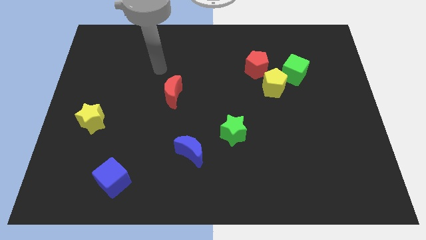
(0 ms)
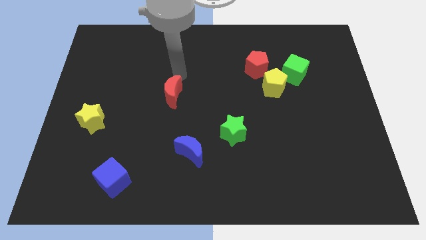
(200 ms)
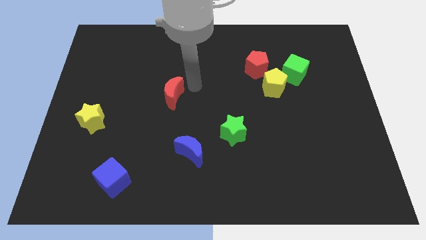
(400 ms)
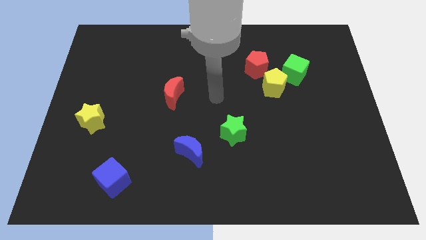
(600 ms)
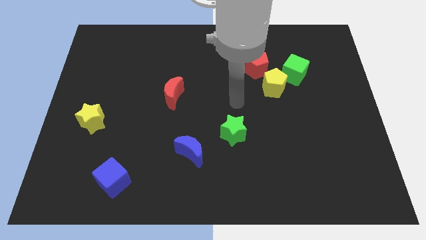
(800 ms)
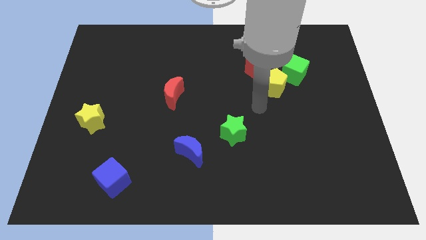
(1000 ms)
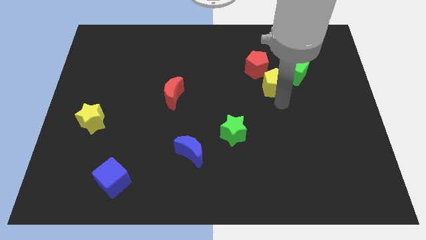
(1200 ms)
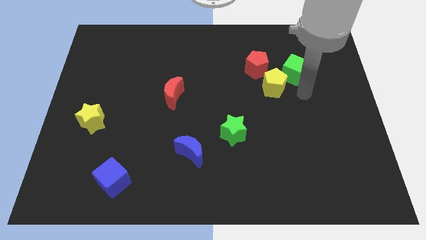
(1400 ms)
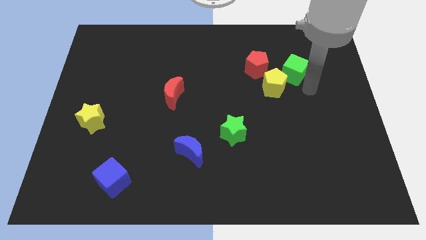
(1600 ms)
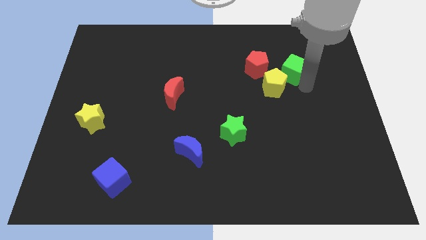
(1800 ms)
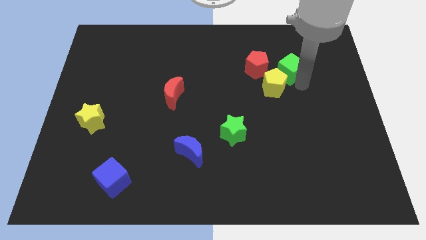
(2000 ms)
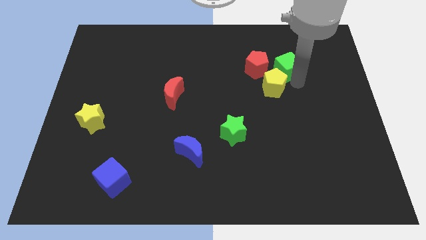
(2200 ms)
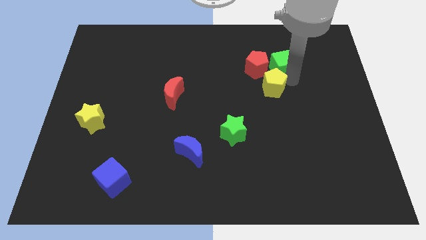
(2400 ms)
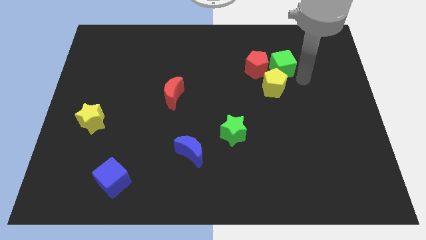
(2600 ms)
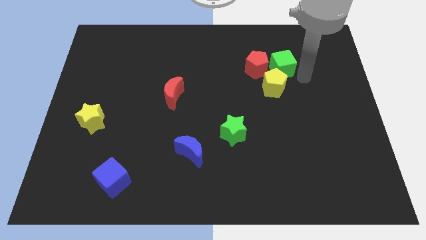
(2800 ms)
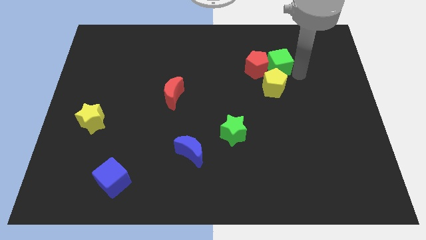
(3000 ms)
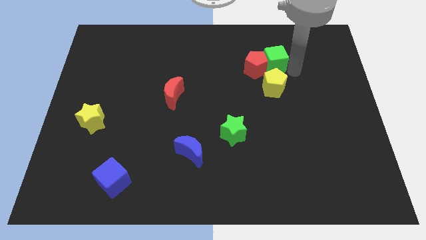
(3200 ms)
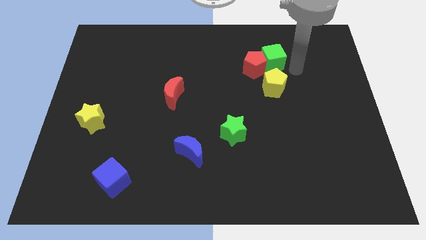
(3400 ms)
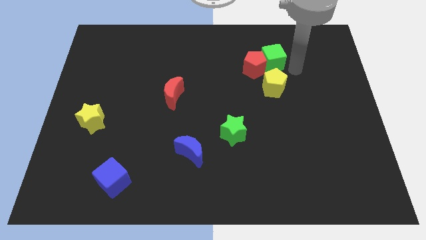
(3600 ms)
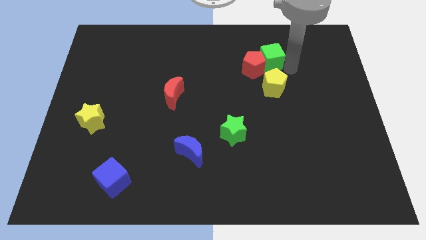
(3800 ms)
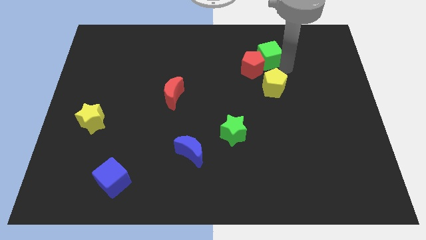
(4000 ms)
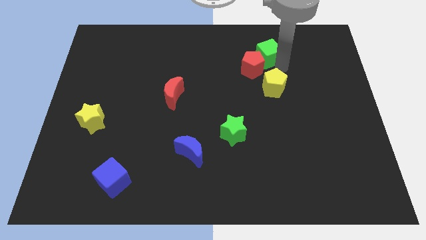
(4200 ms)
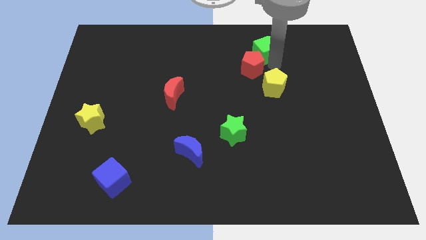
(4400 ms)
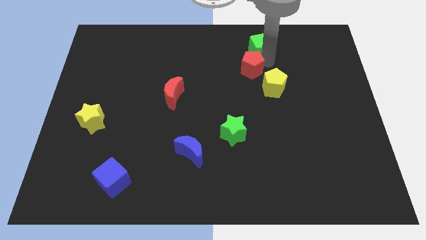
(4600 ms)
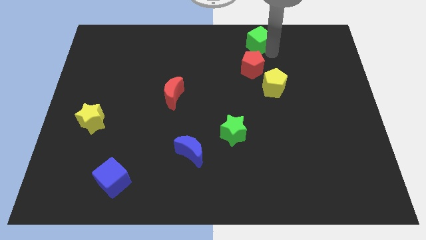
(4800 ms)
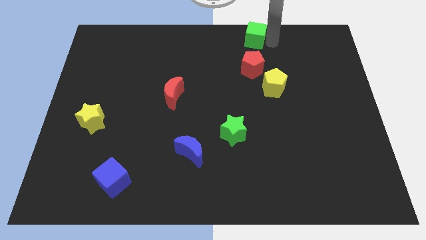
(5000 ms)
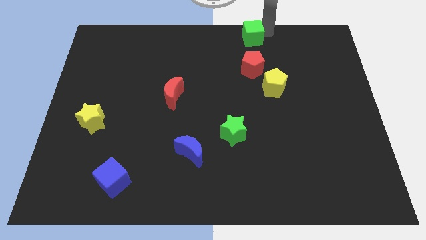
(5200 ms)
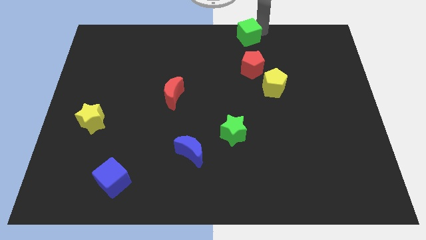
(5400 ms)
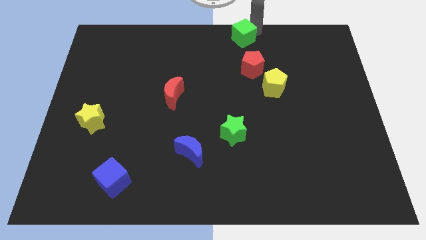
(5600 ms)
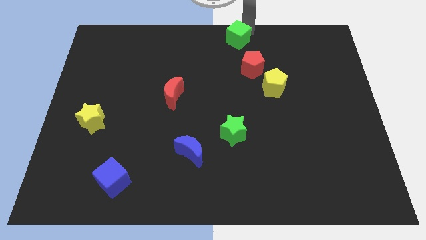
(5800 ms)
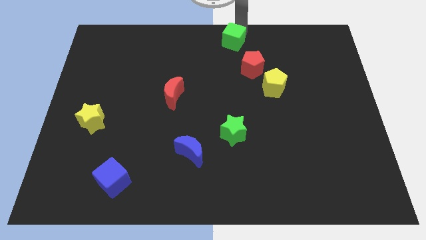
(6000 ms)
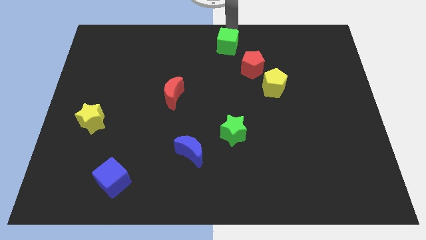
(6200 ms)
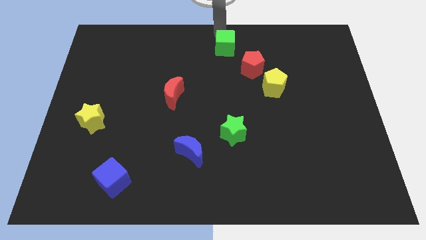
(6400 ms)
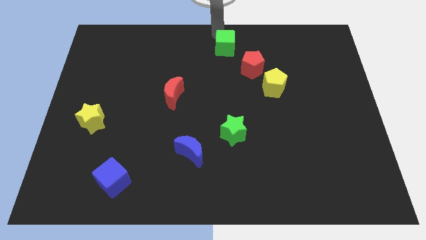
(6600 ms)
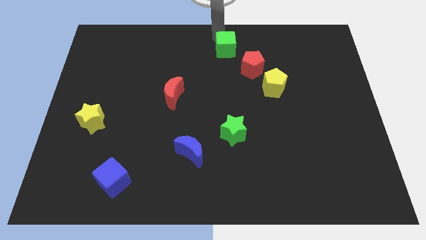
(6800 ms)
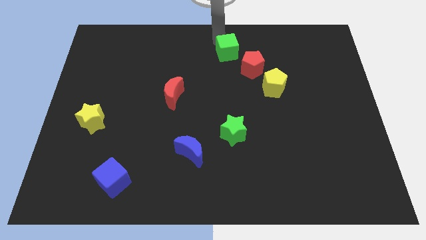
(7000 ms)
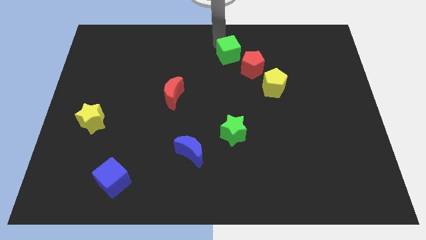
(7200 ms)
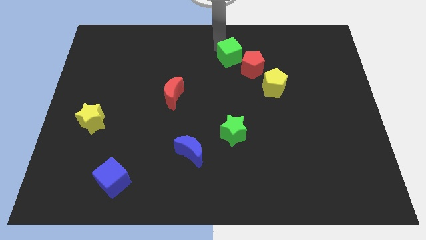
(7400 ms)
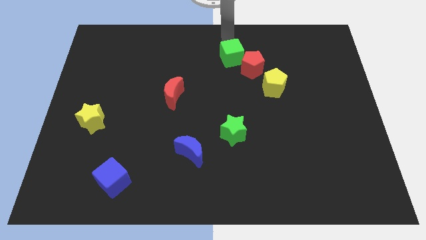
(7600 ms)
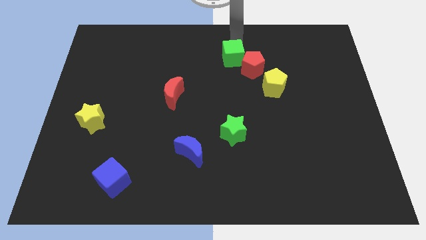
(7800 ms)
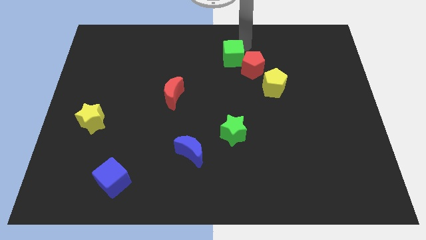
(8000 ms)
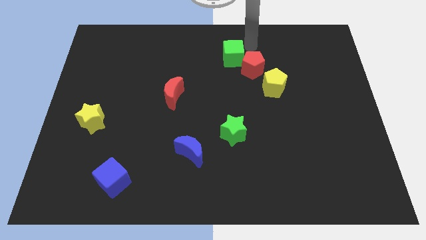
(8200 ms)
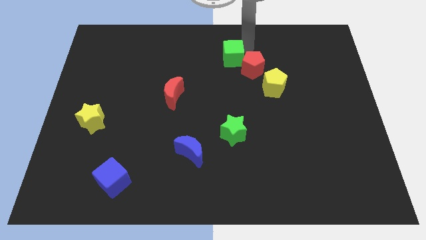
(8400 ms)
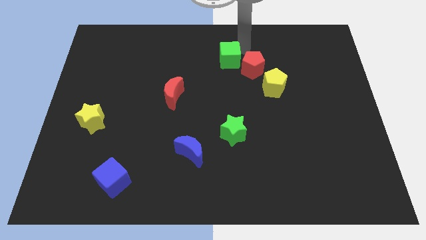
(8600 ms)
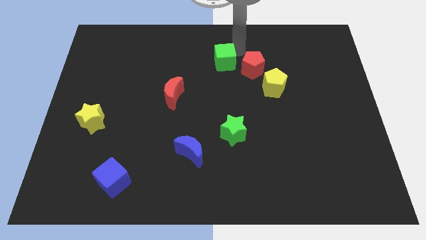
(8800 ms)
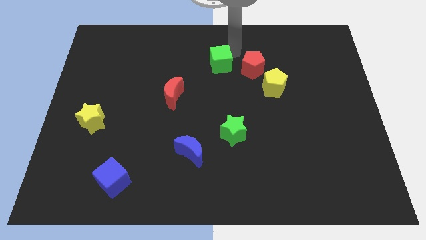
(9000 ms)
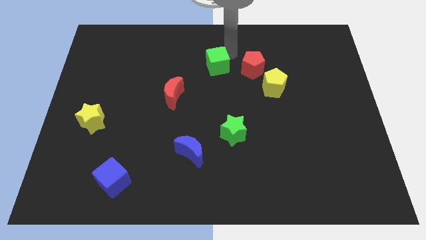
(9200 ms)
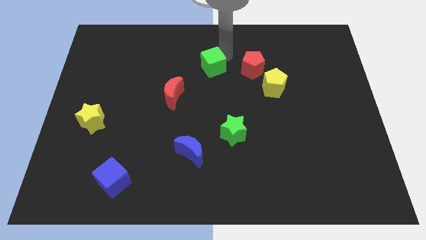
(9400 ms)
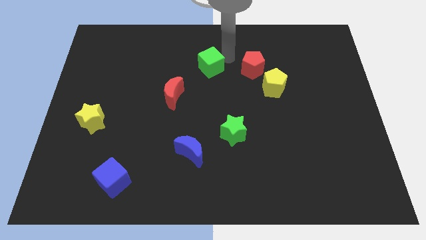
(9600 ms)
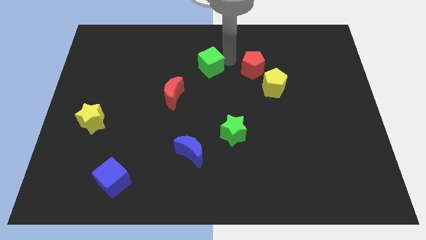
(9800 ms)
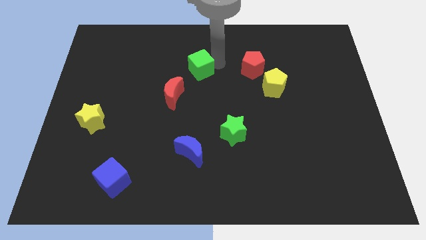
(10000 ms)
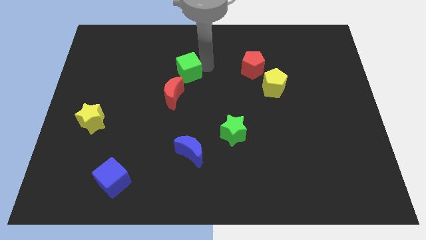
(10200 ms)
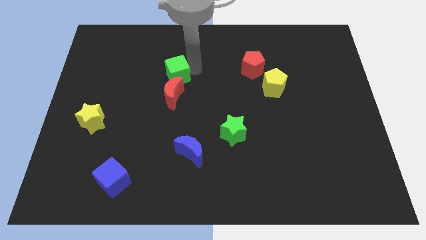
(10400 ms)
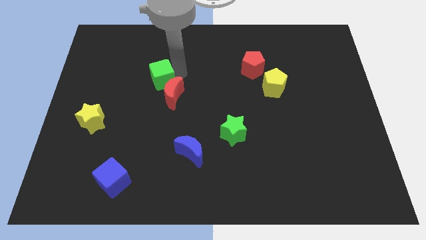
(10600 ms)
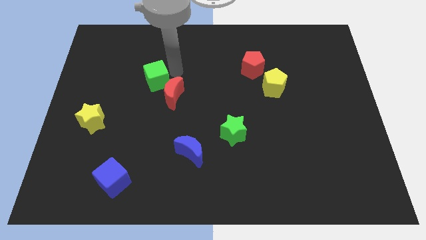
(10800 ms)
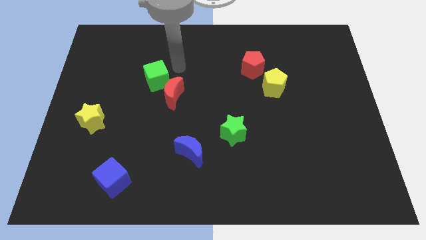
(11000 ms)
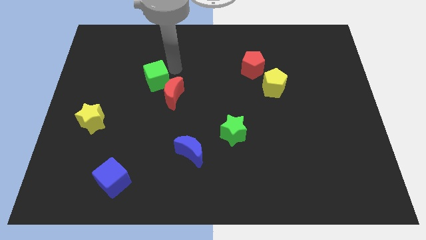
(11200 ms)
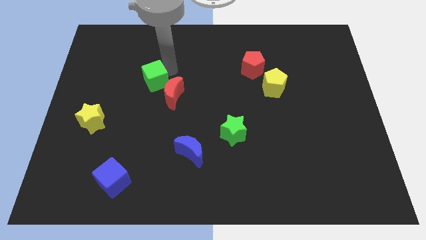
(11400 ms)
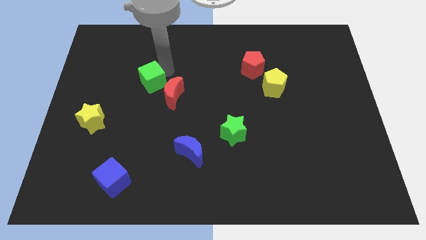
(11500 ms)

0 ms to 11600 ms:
slide the green cube left of the red moon

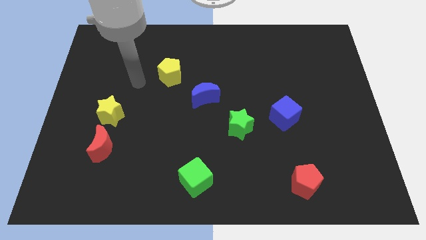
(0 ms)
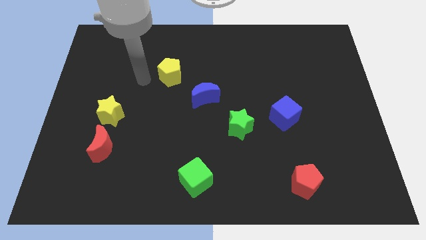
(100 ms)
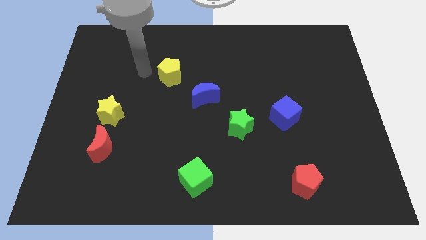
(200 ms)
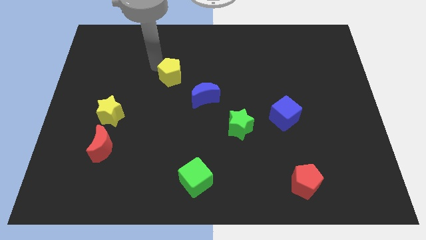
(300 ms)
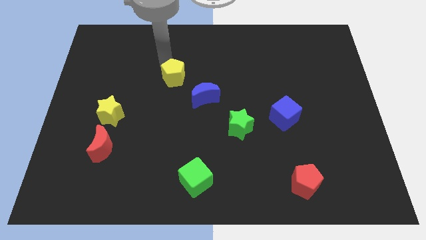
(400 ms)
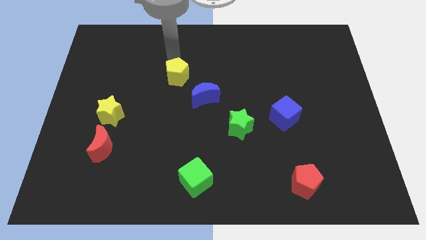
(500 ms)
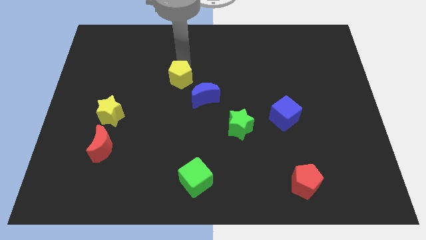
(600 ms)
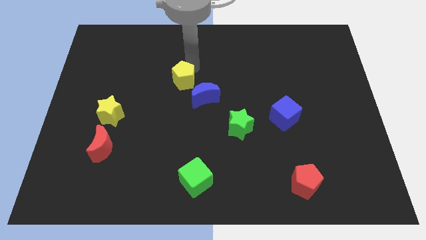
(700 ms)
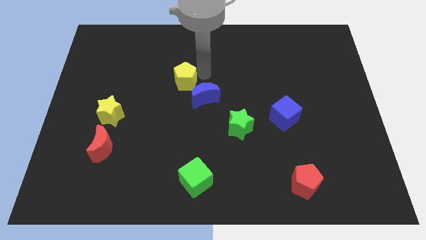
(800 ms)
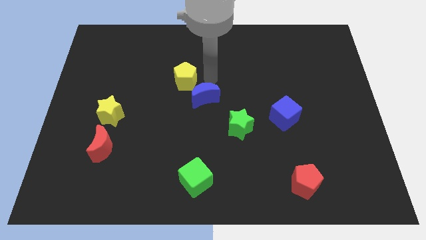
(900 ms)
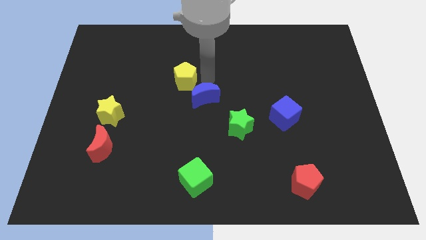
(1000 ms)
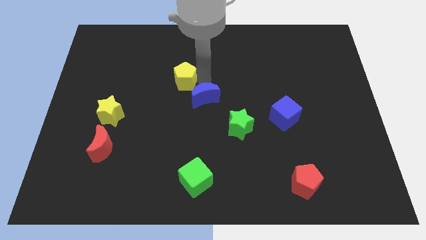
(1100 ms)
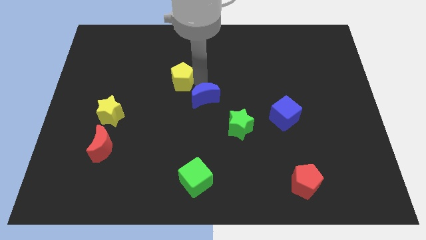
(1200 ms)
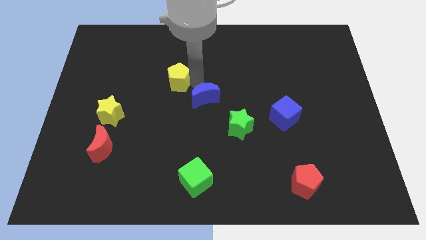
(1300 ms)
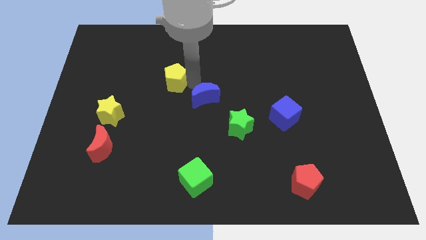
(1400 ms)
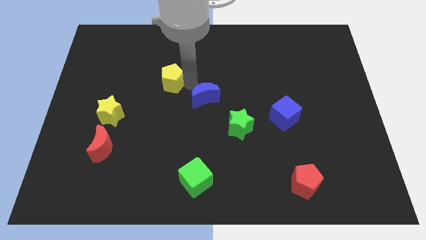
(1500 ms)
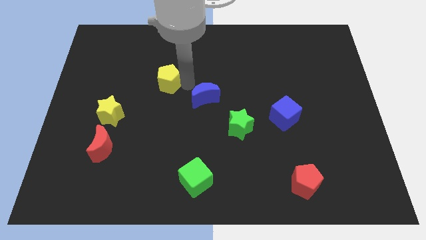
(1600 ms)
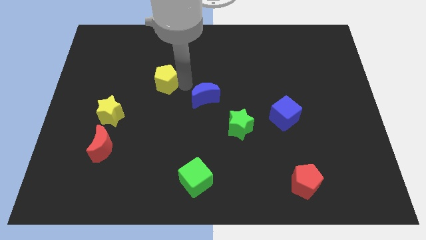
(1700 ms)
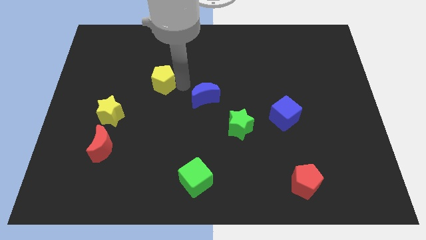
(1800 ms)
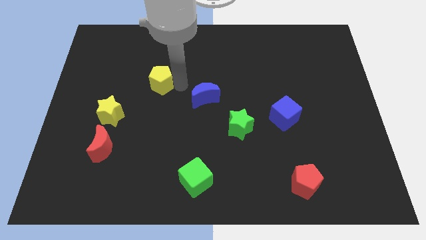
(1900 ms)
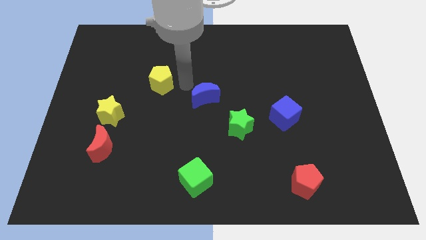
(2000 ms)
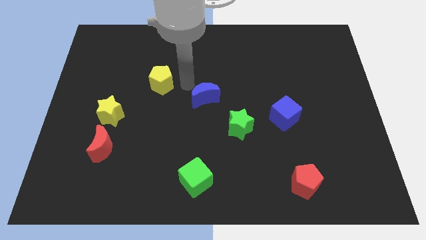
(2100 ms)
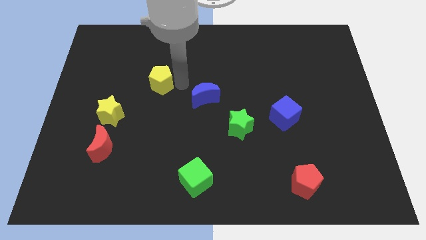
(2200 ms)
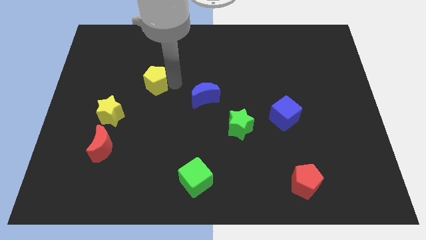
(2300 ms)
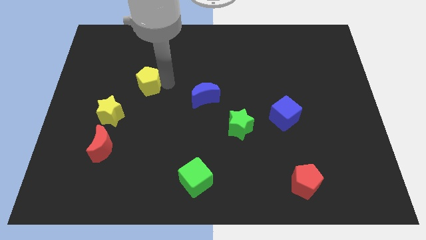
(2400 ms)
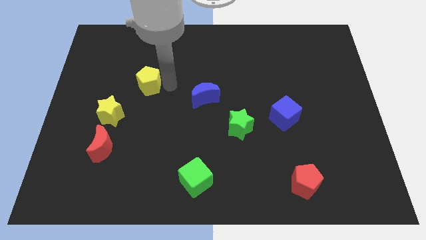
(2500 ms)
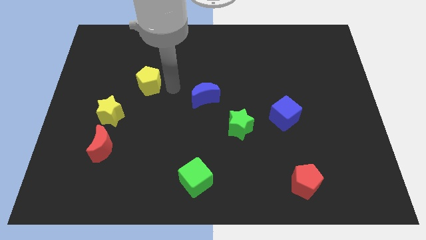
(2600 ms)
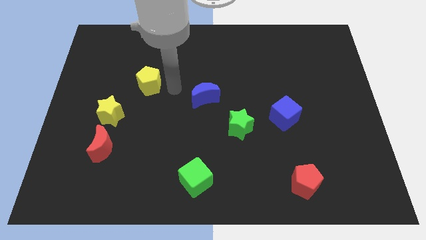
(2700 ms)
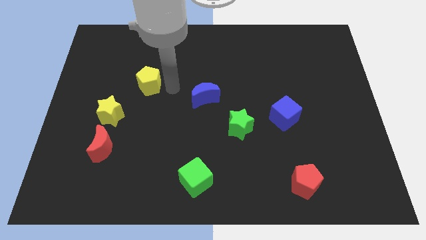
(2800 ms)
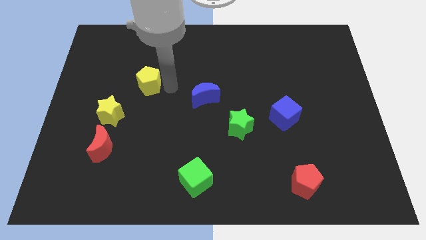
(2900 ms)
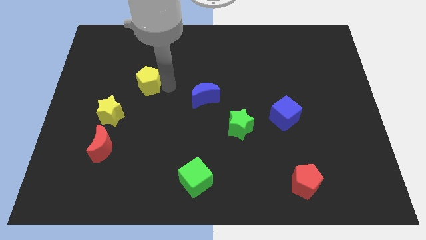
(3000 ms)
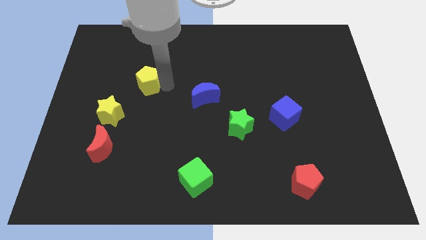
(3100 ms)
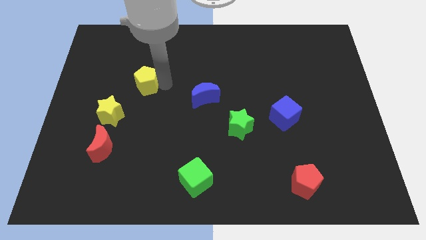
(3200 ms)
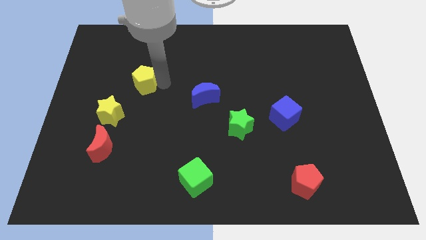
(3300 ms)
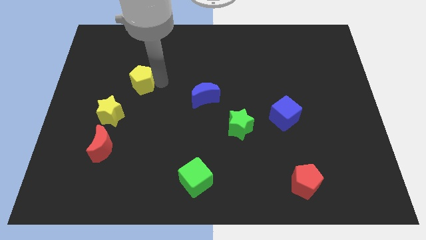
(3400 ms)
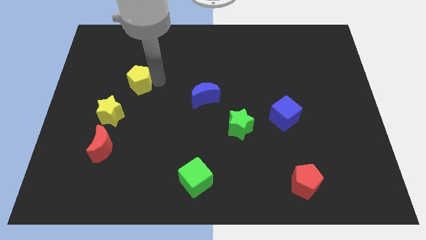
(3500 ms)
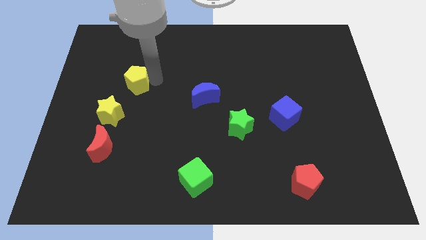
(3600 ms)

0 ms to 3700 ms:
push the yellow pentagon to the top side of the yellow star
